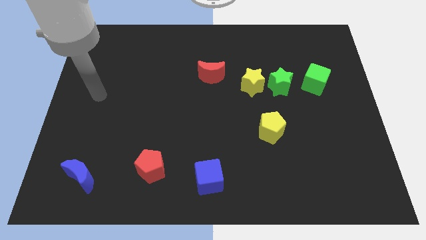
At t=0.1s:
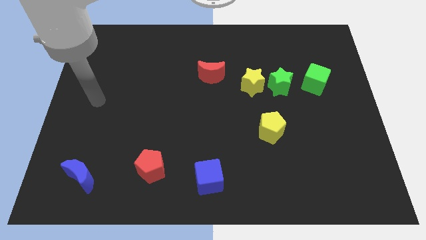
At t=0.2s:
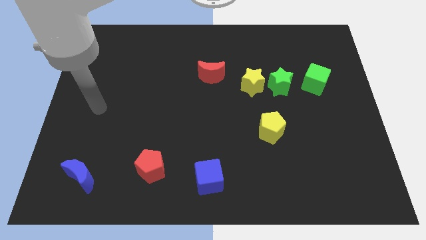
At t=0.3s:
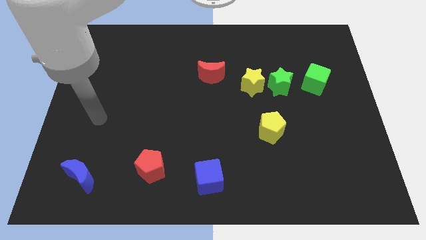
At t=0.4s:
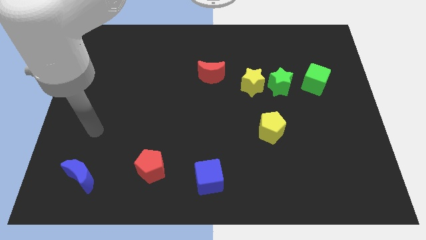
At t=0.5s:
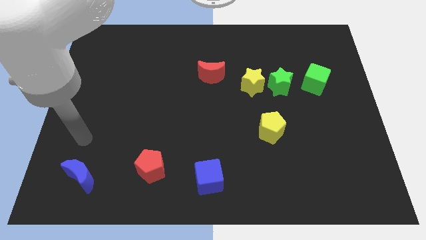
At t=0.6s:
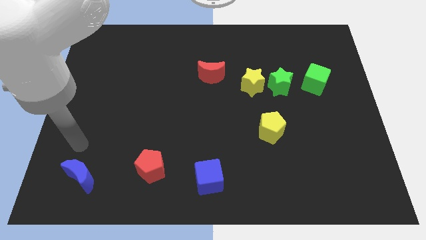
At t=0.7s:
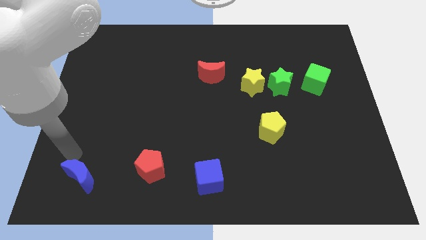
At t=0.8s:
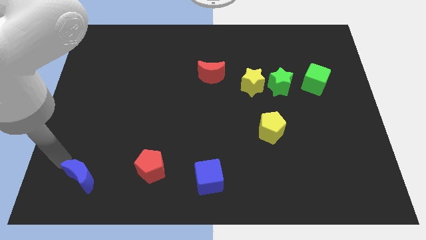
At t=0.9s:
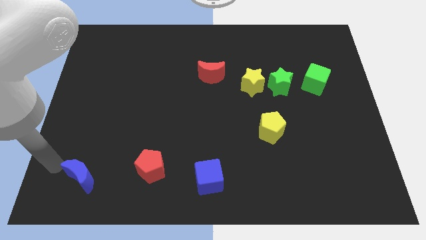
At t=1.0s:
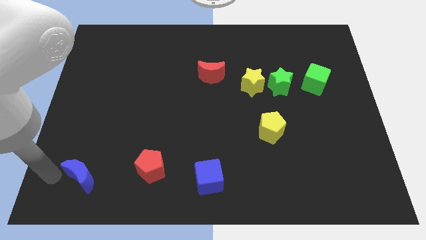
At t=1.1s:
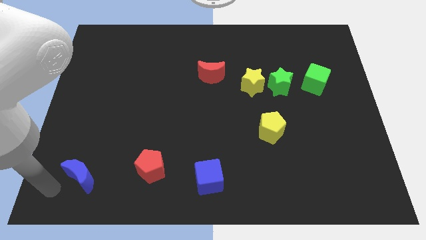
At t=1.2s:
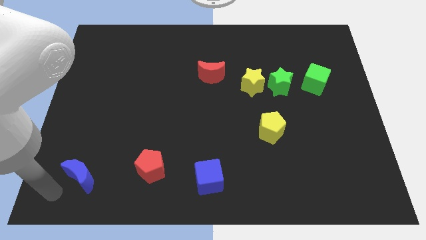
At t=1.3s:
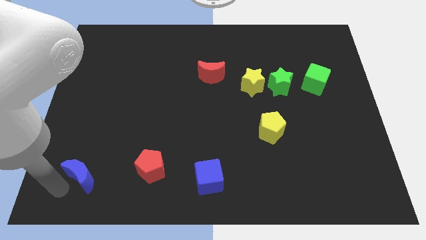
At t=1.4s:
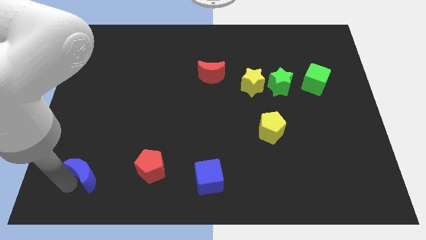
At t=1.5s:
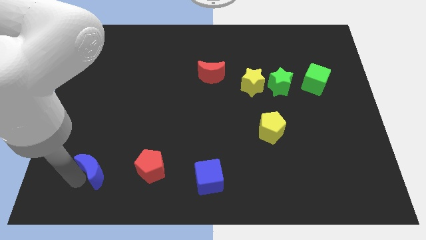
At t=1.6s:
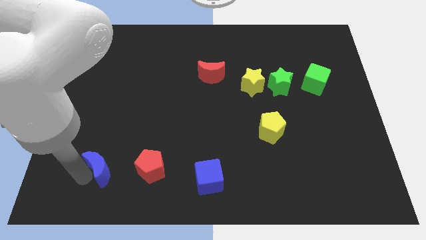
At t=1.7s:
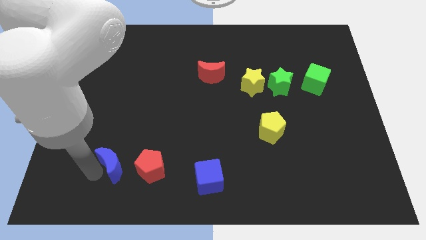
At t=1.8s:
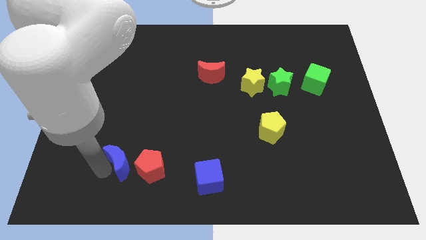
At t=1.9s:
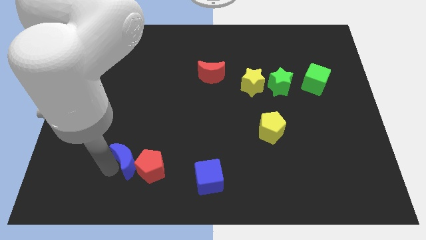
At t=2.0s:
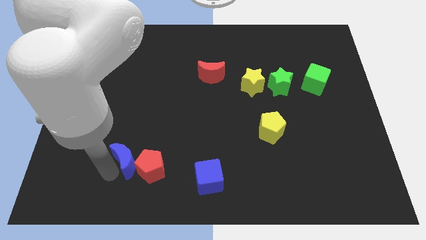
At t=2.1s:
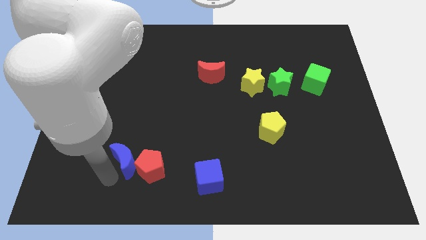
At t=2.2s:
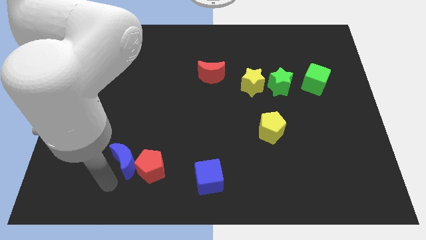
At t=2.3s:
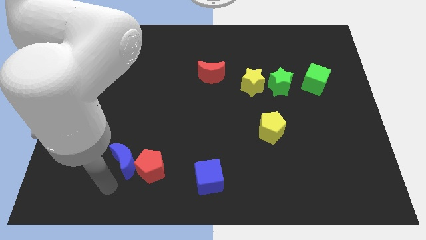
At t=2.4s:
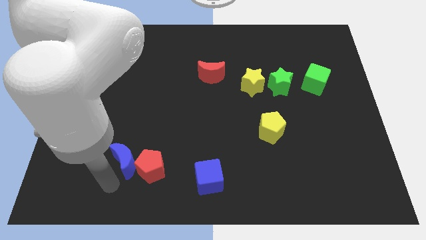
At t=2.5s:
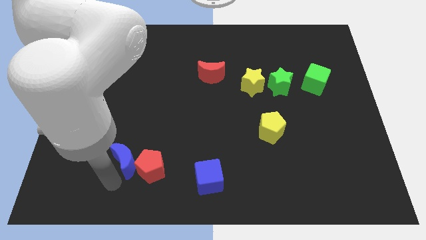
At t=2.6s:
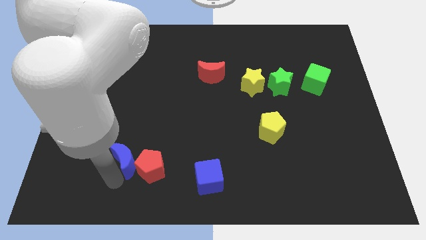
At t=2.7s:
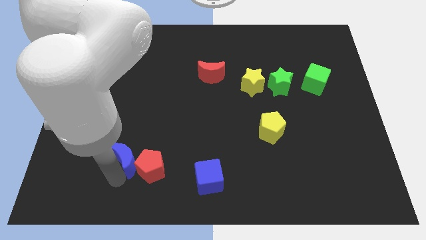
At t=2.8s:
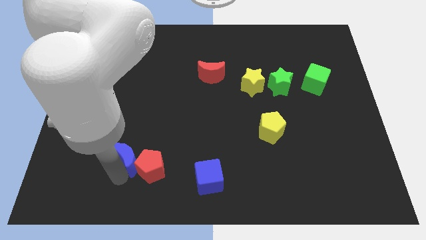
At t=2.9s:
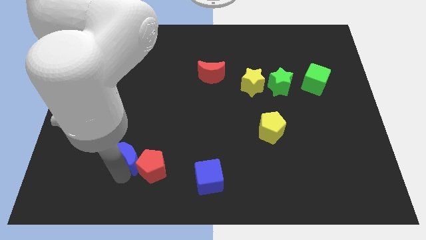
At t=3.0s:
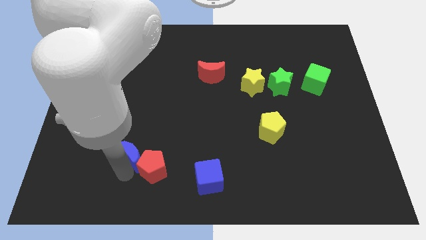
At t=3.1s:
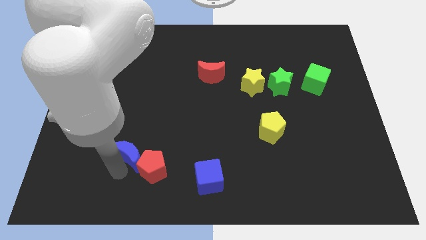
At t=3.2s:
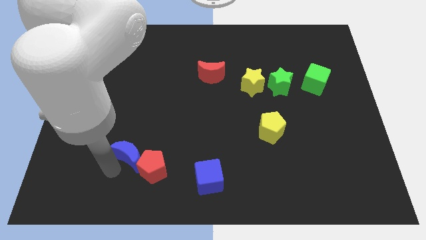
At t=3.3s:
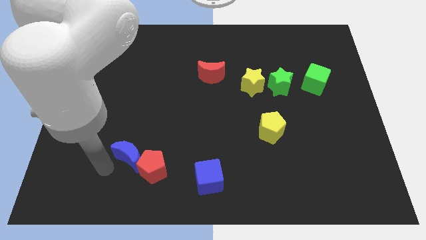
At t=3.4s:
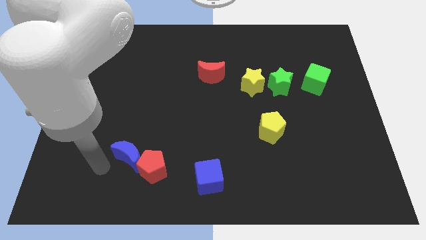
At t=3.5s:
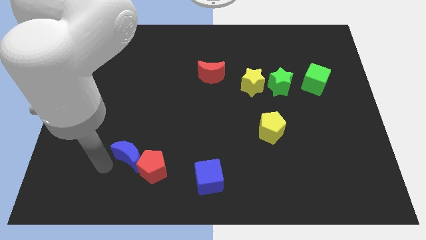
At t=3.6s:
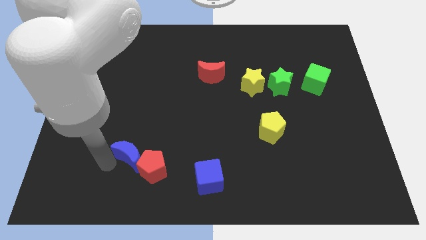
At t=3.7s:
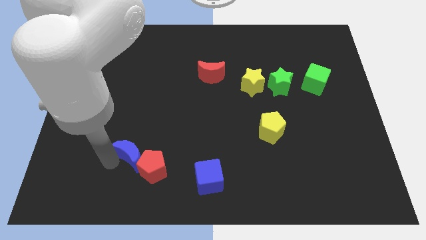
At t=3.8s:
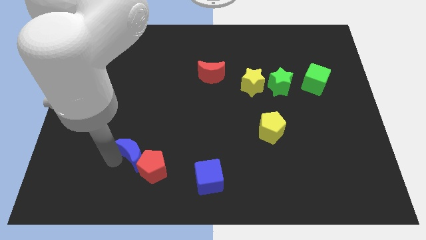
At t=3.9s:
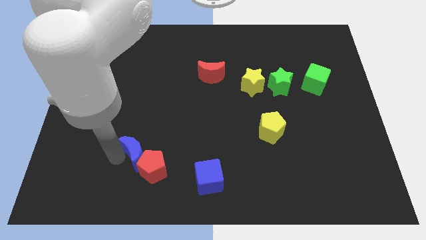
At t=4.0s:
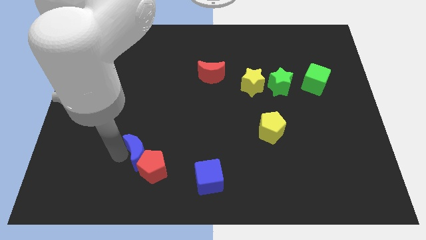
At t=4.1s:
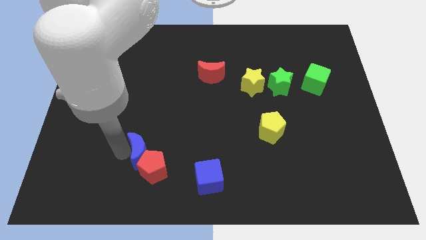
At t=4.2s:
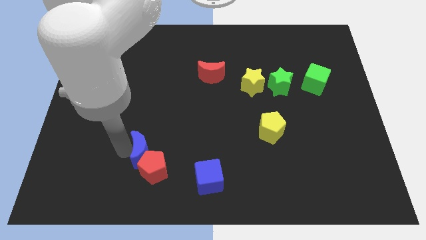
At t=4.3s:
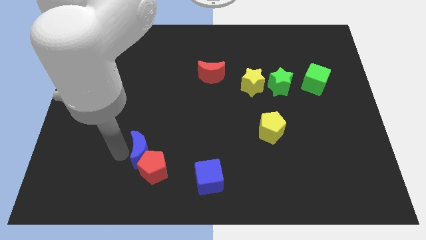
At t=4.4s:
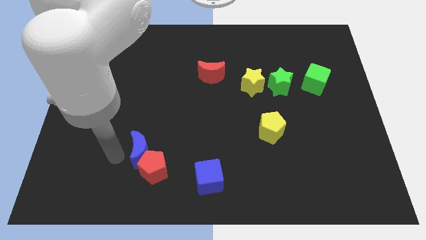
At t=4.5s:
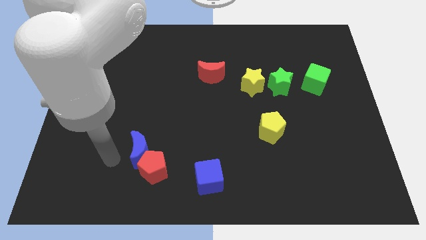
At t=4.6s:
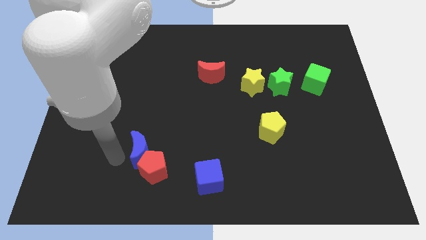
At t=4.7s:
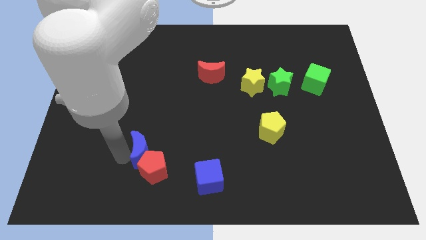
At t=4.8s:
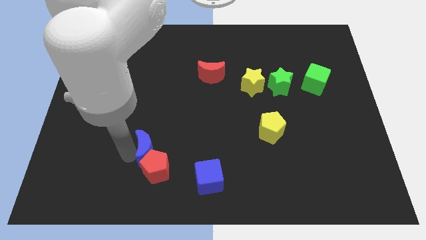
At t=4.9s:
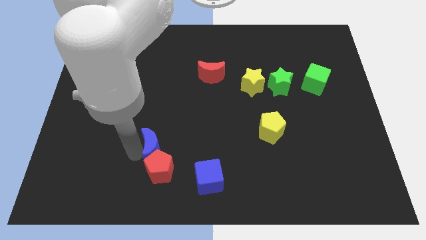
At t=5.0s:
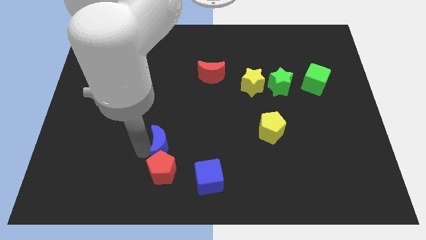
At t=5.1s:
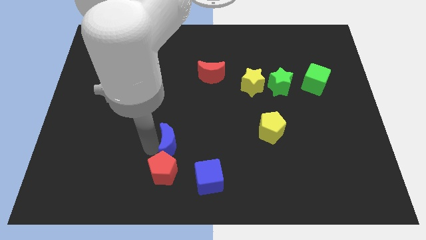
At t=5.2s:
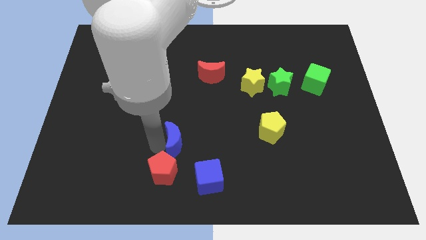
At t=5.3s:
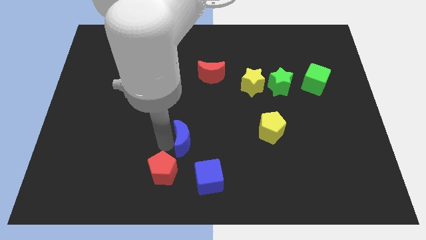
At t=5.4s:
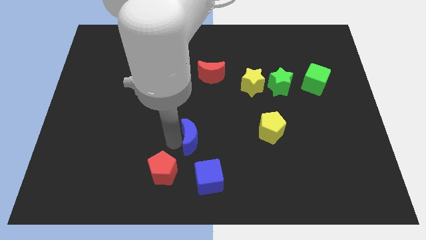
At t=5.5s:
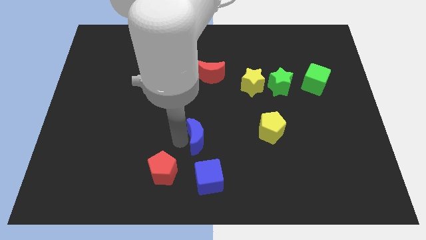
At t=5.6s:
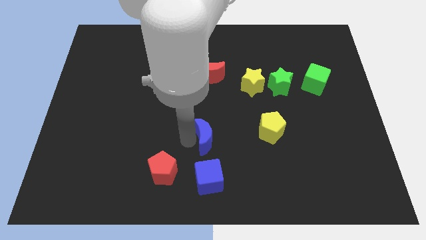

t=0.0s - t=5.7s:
slide the blue moon to the left of the yellow pentagon
